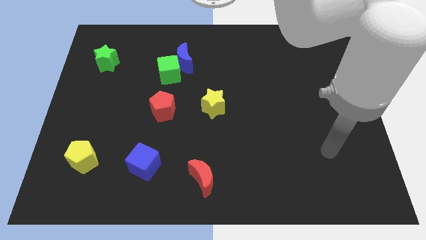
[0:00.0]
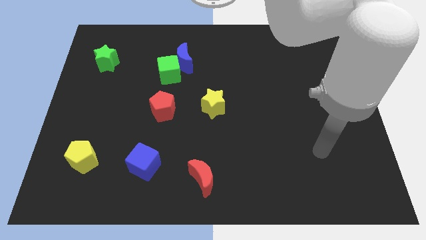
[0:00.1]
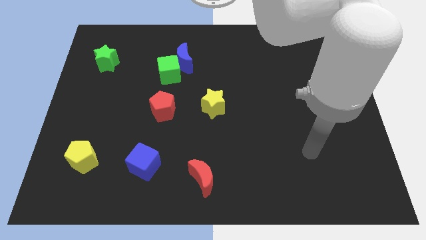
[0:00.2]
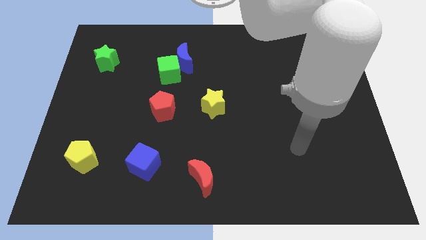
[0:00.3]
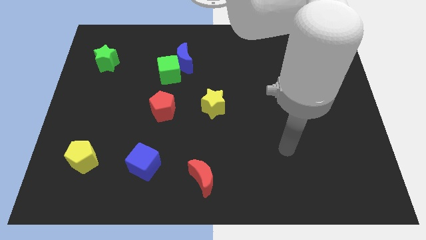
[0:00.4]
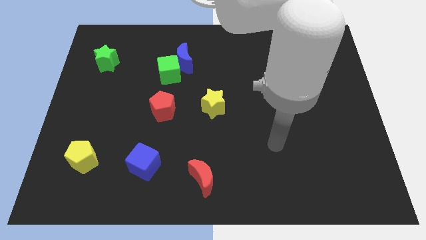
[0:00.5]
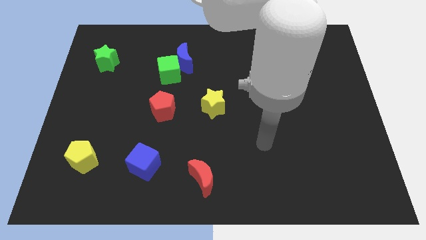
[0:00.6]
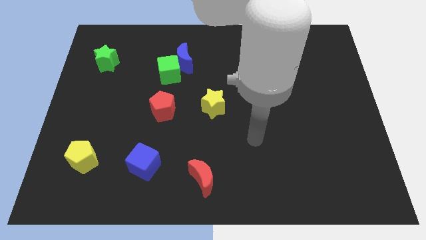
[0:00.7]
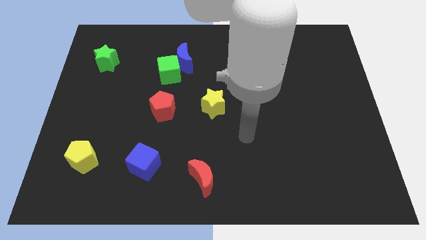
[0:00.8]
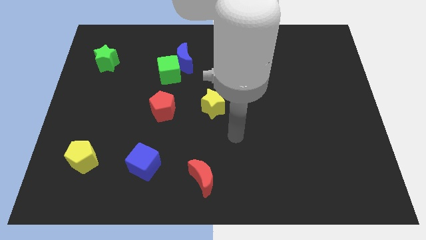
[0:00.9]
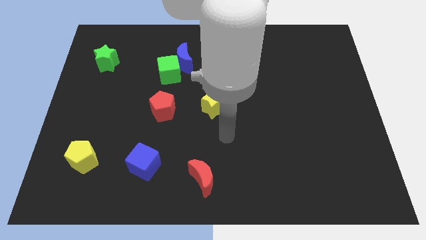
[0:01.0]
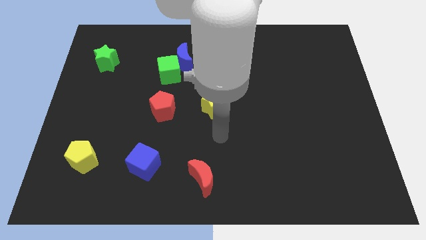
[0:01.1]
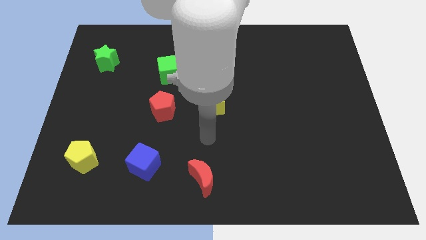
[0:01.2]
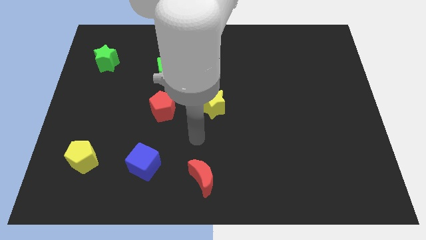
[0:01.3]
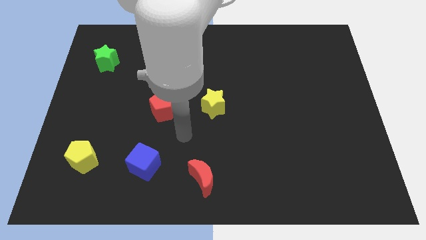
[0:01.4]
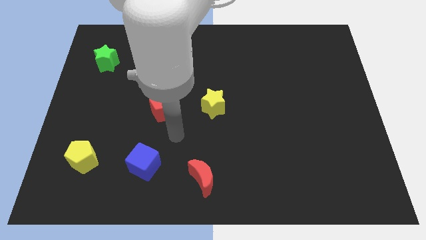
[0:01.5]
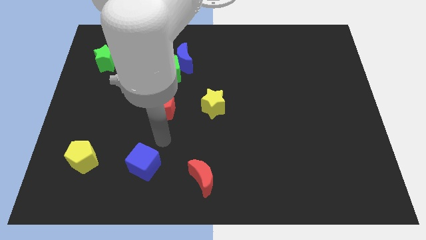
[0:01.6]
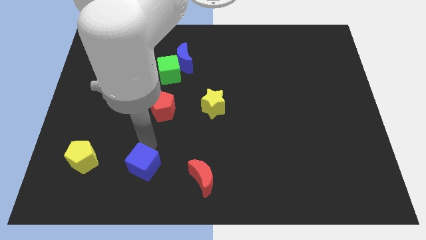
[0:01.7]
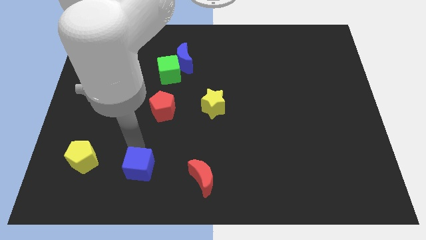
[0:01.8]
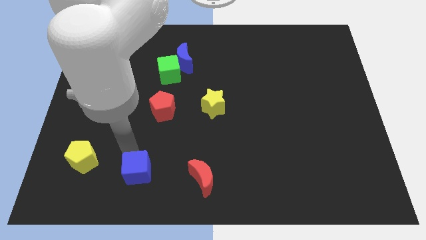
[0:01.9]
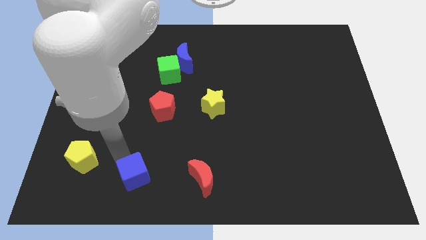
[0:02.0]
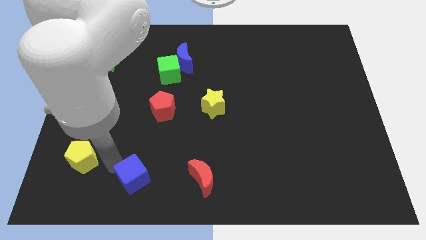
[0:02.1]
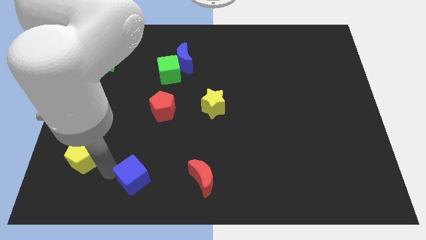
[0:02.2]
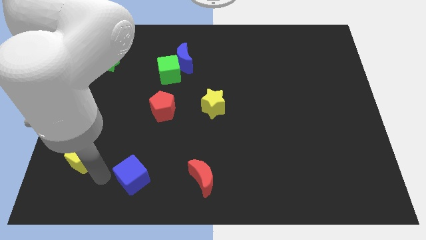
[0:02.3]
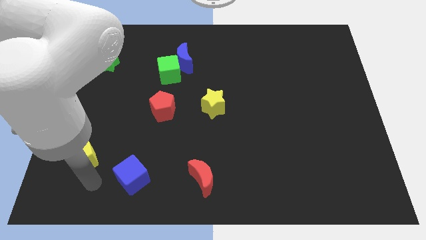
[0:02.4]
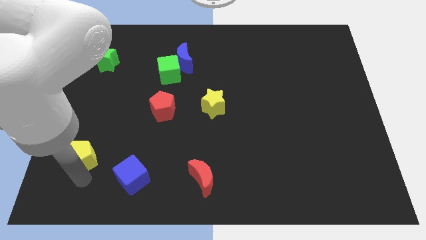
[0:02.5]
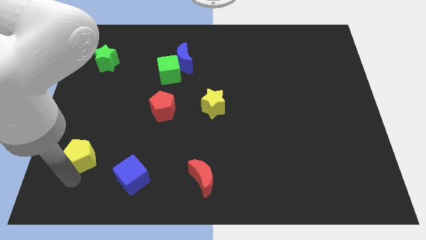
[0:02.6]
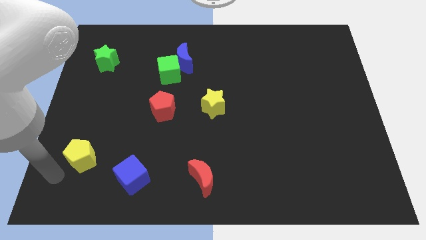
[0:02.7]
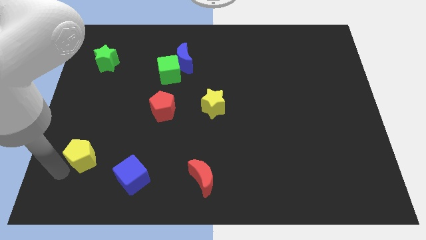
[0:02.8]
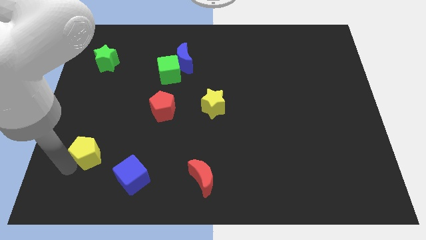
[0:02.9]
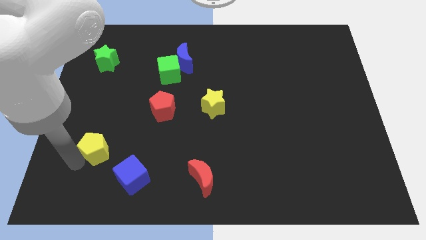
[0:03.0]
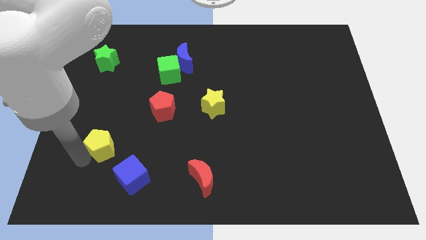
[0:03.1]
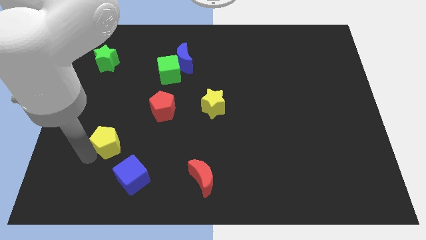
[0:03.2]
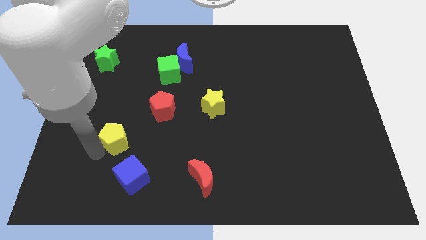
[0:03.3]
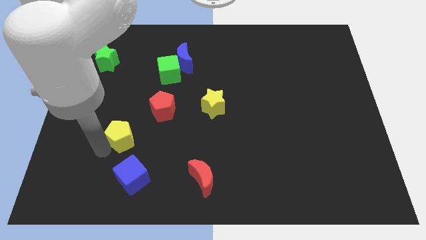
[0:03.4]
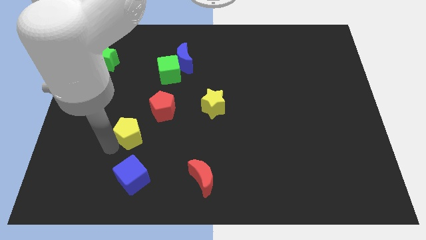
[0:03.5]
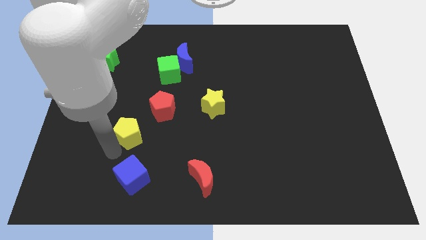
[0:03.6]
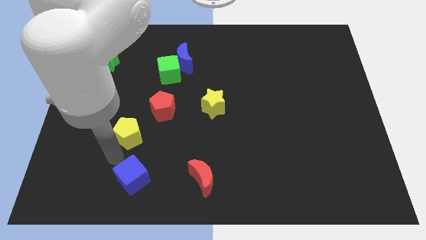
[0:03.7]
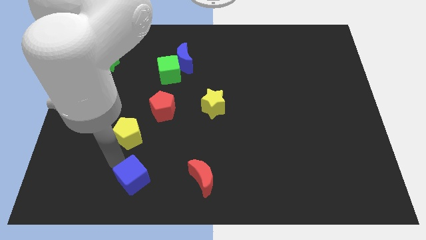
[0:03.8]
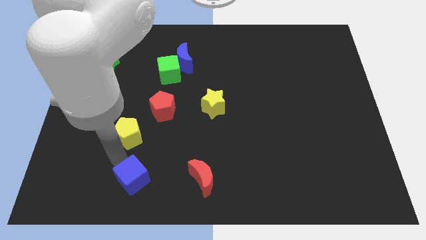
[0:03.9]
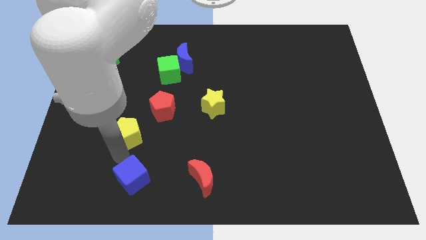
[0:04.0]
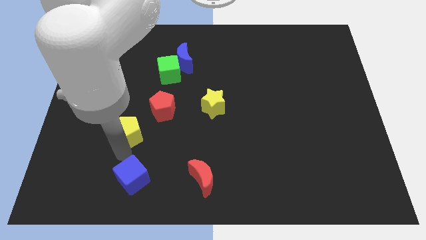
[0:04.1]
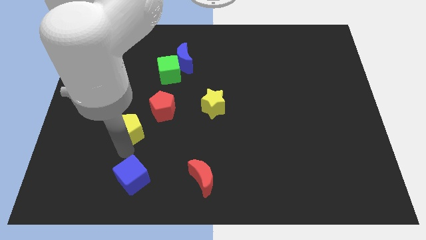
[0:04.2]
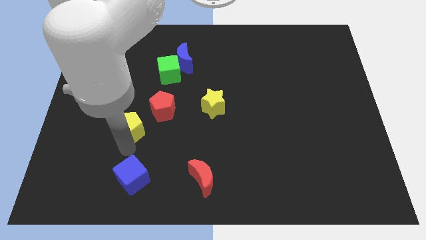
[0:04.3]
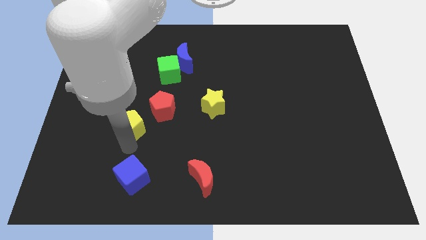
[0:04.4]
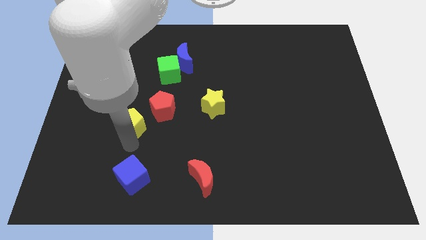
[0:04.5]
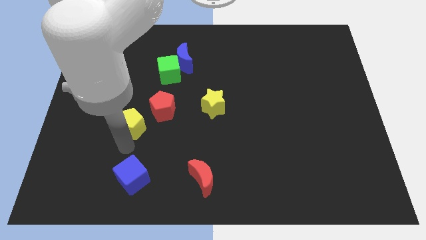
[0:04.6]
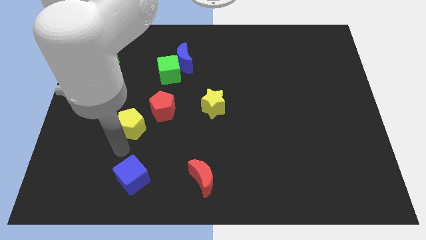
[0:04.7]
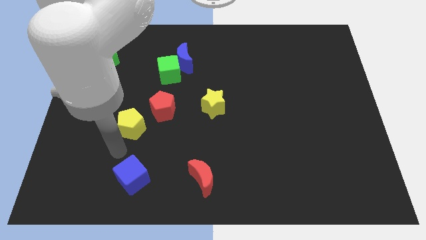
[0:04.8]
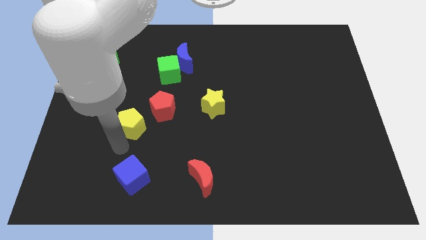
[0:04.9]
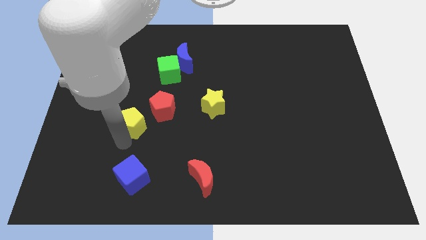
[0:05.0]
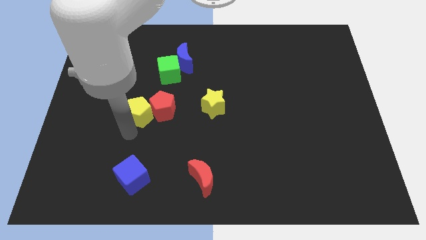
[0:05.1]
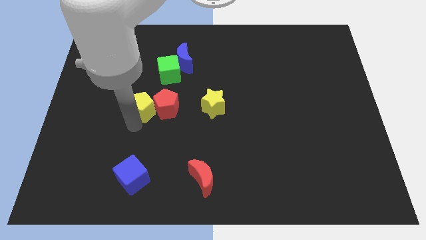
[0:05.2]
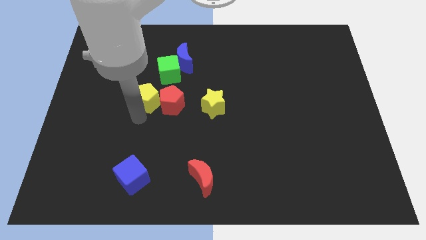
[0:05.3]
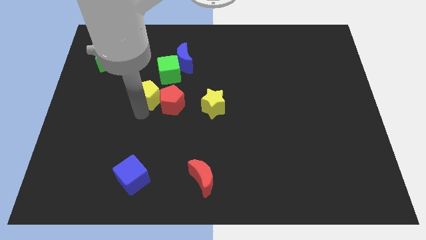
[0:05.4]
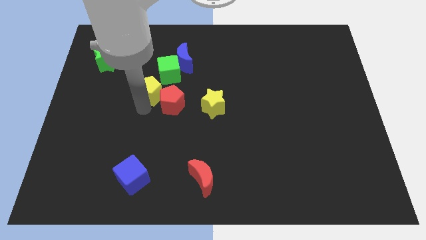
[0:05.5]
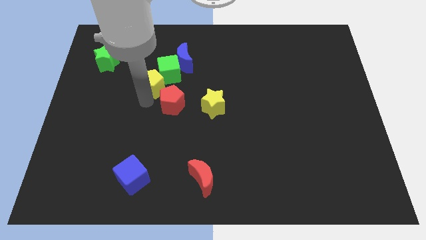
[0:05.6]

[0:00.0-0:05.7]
put the yellow pentagon next to the green cube

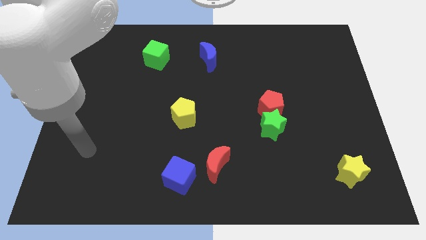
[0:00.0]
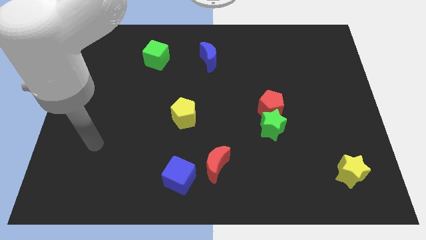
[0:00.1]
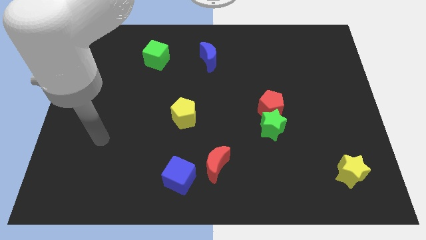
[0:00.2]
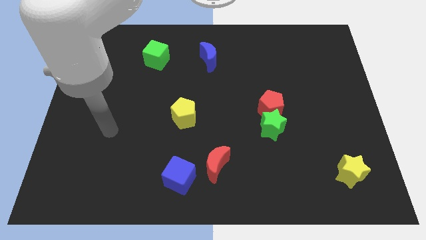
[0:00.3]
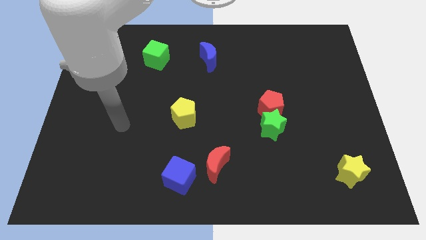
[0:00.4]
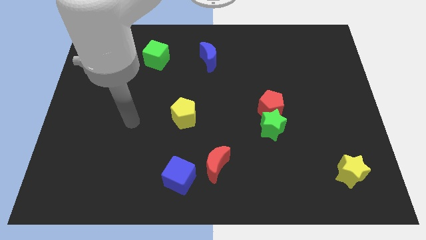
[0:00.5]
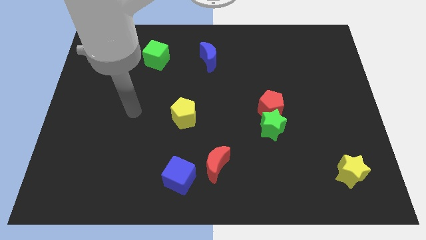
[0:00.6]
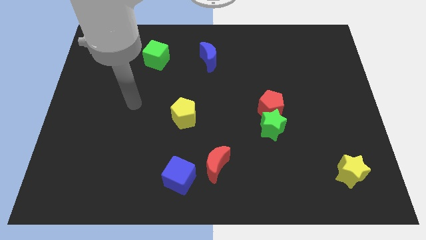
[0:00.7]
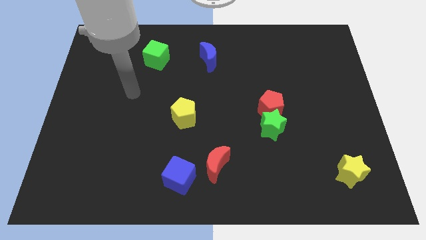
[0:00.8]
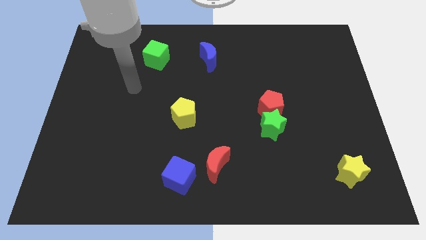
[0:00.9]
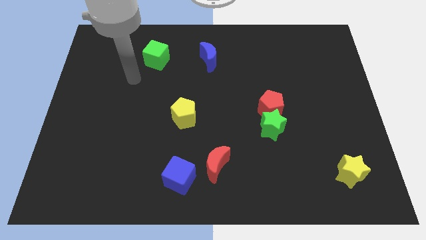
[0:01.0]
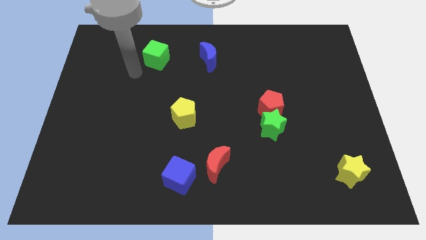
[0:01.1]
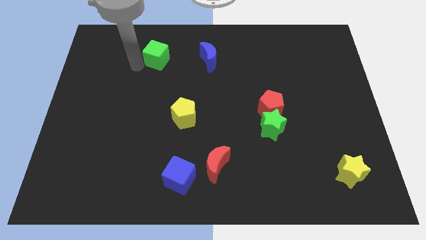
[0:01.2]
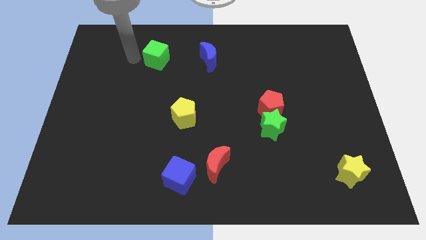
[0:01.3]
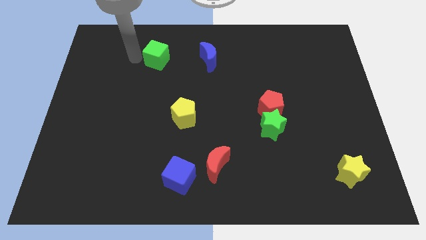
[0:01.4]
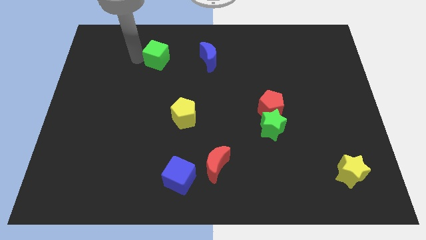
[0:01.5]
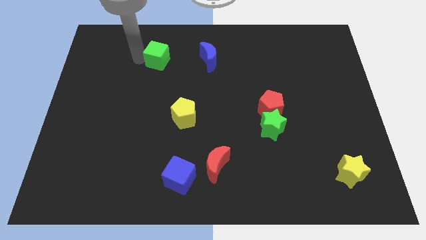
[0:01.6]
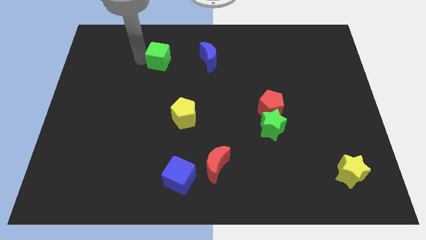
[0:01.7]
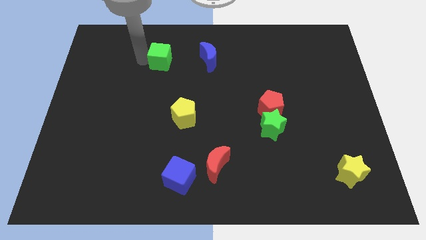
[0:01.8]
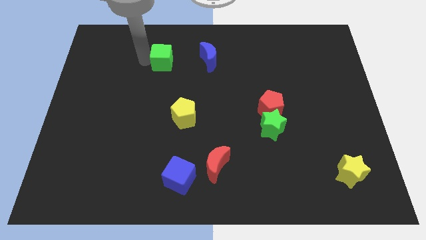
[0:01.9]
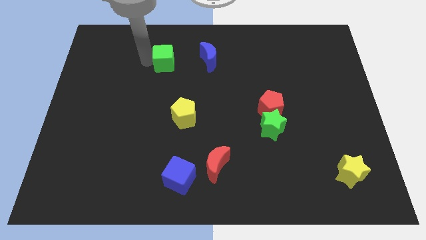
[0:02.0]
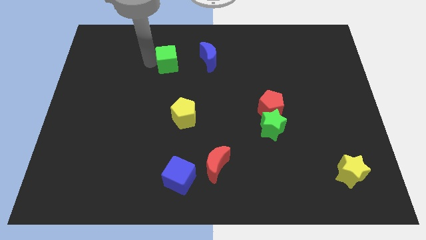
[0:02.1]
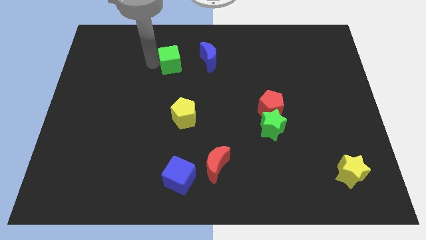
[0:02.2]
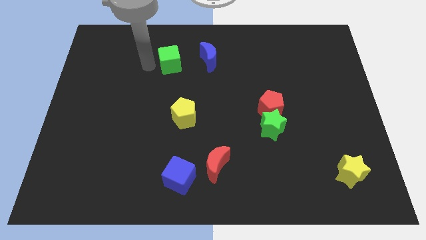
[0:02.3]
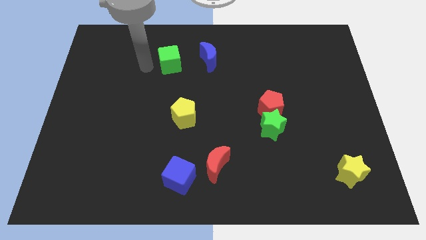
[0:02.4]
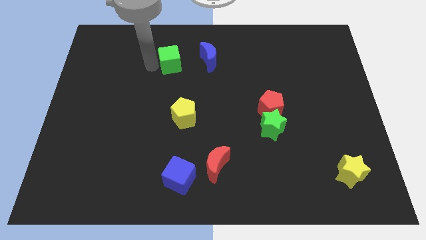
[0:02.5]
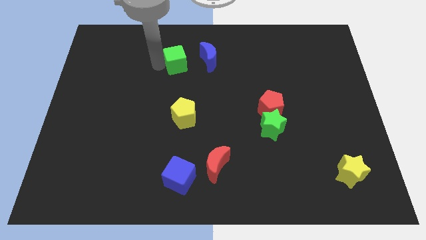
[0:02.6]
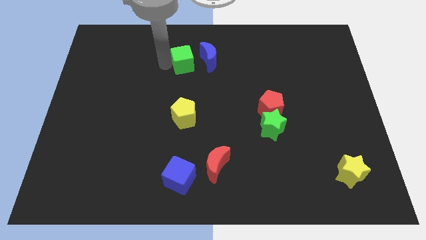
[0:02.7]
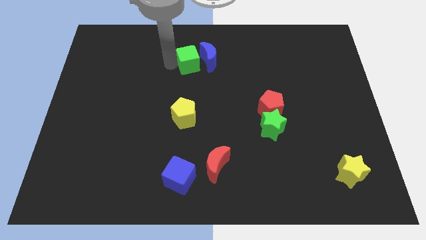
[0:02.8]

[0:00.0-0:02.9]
move the green cube next to the blue moon
